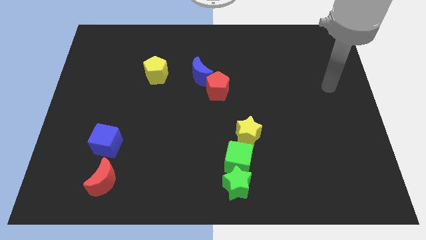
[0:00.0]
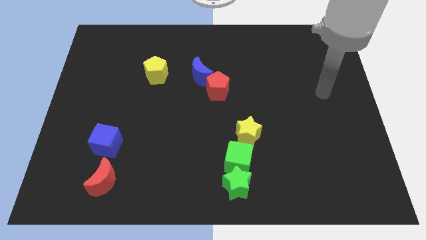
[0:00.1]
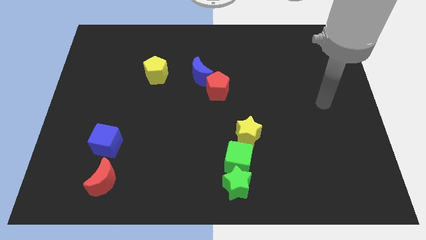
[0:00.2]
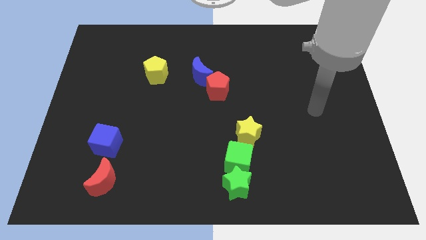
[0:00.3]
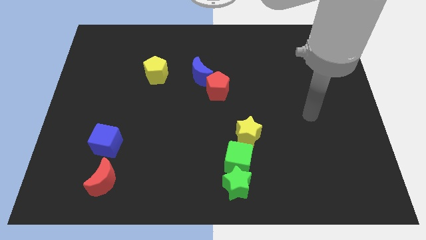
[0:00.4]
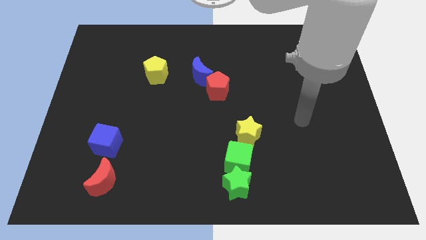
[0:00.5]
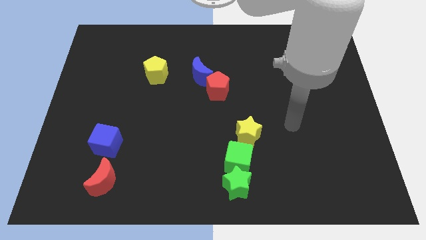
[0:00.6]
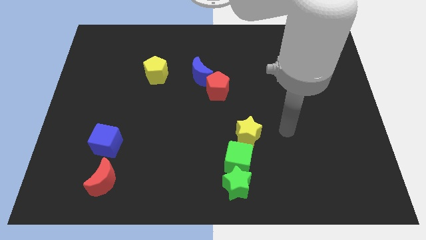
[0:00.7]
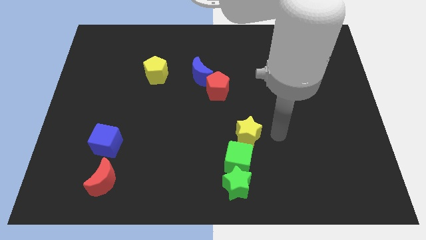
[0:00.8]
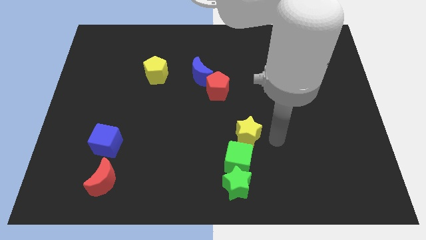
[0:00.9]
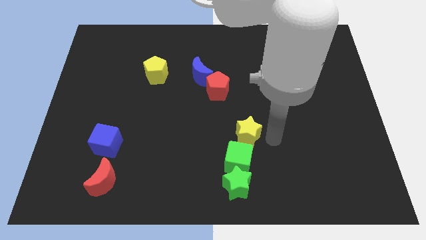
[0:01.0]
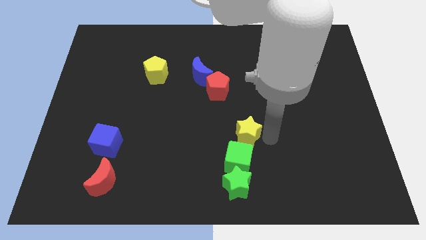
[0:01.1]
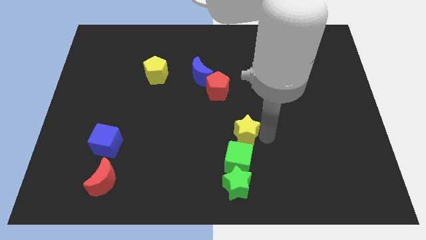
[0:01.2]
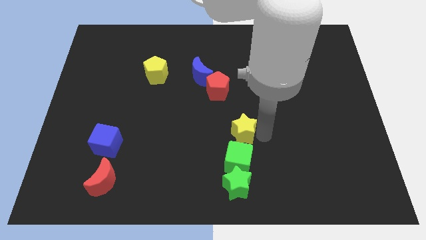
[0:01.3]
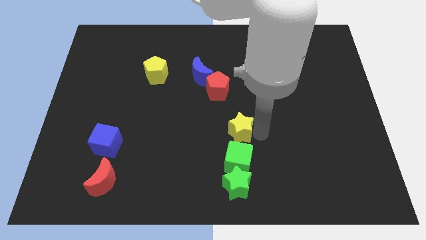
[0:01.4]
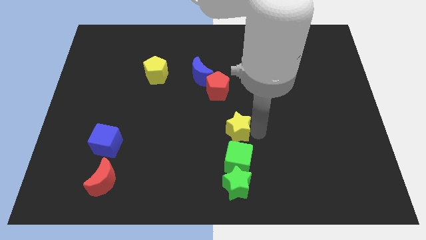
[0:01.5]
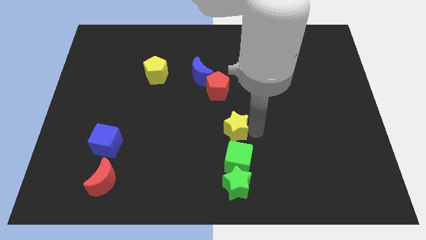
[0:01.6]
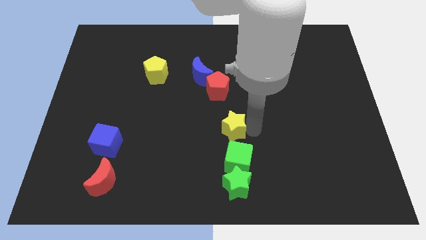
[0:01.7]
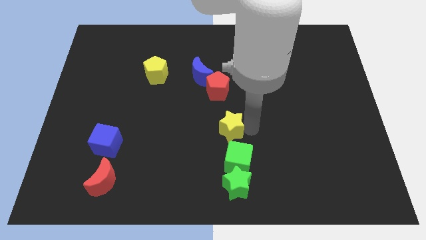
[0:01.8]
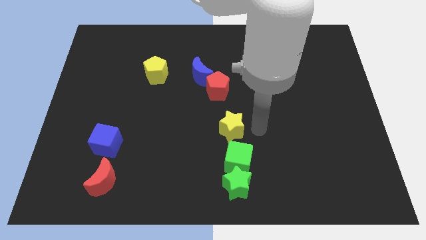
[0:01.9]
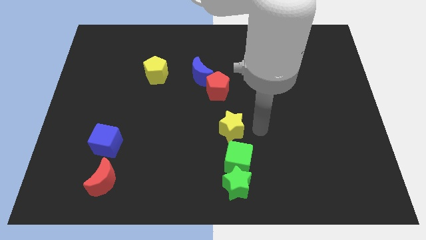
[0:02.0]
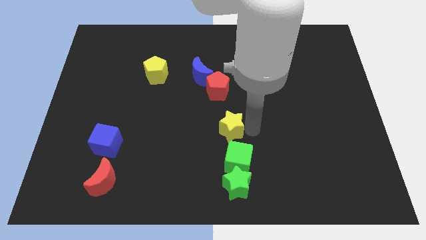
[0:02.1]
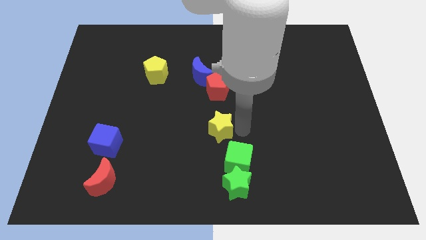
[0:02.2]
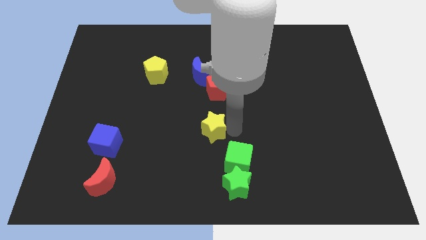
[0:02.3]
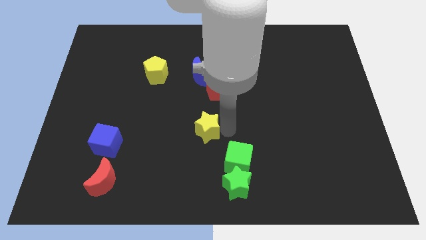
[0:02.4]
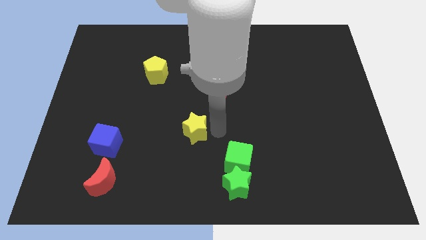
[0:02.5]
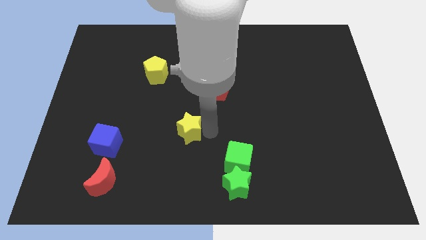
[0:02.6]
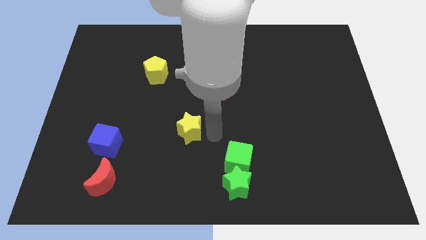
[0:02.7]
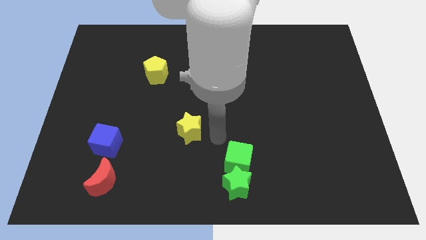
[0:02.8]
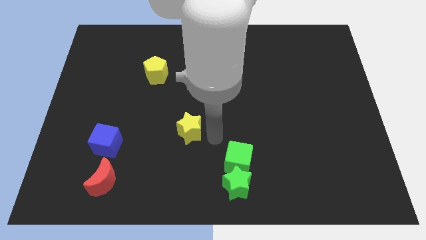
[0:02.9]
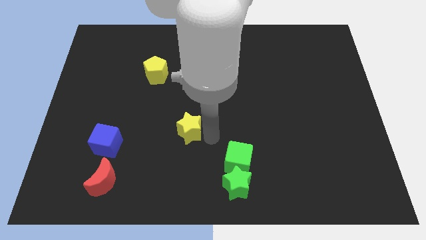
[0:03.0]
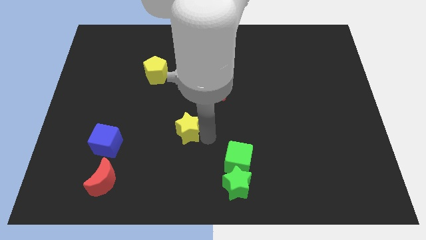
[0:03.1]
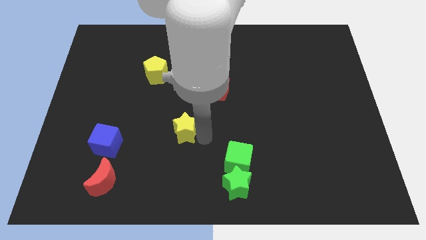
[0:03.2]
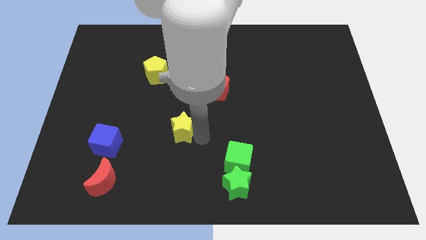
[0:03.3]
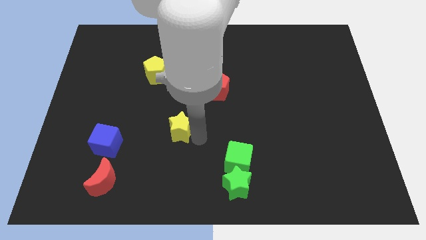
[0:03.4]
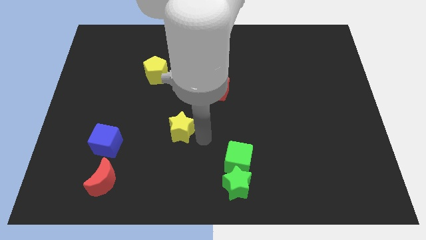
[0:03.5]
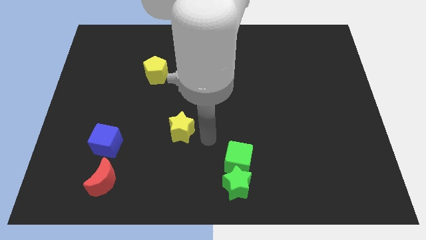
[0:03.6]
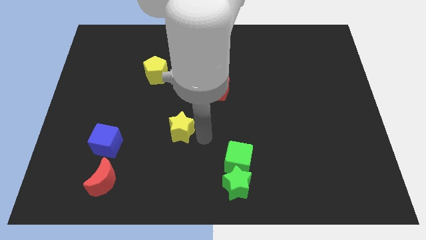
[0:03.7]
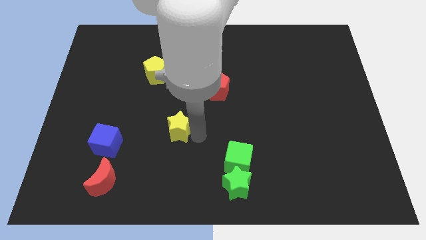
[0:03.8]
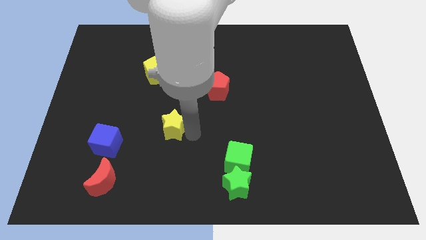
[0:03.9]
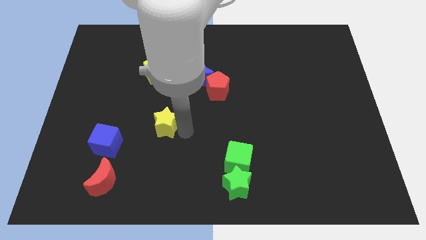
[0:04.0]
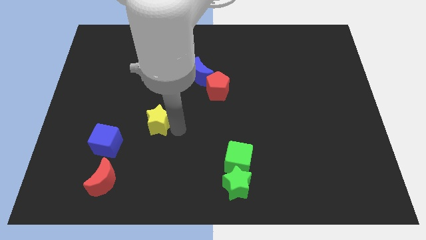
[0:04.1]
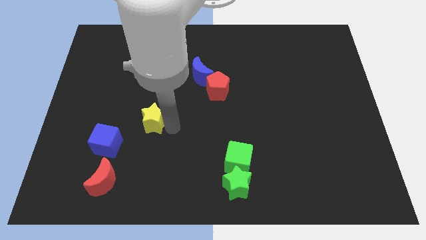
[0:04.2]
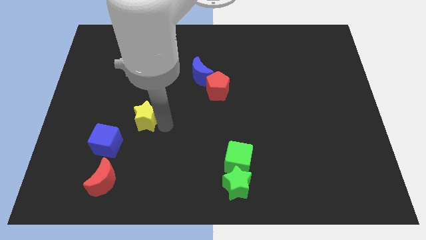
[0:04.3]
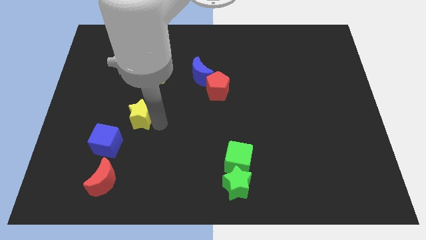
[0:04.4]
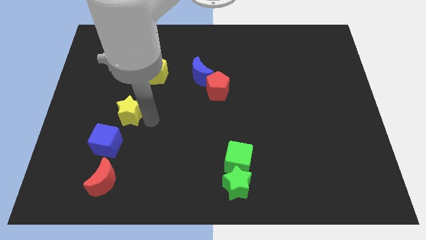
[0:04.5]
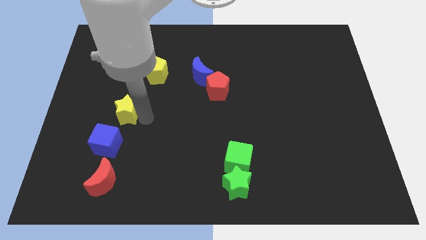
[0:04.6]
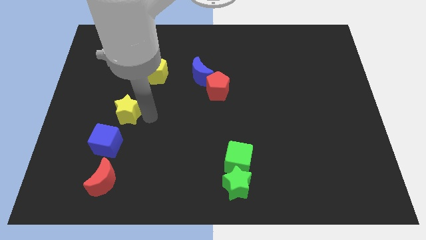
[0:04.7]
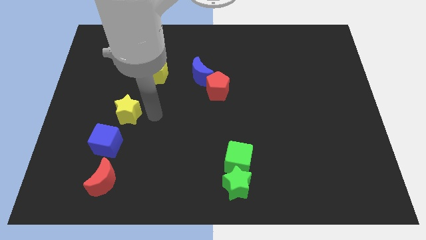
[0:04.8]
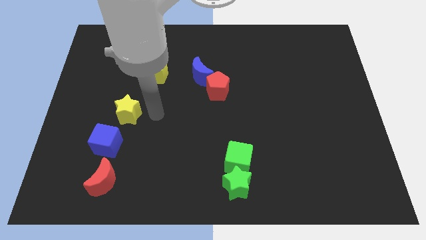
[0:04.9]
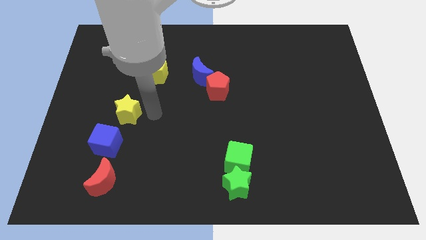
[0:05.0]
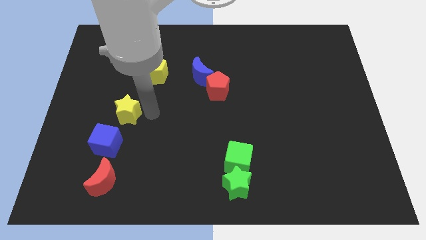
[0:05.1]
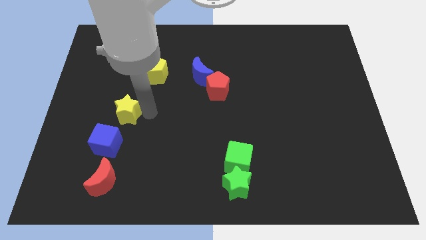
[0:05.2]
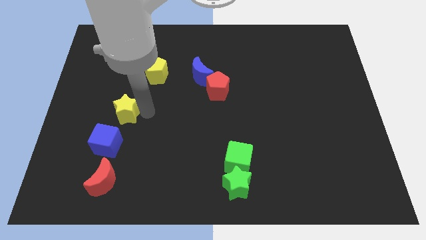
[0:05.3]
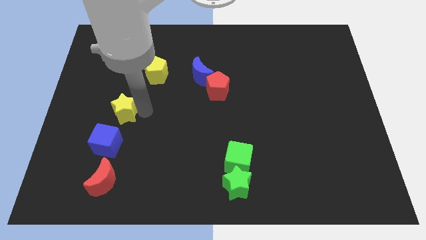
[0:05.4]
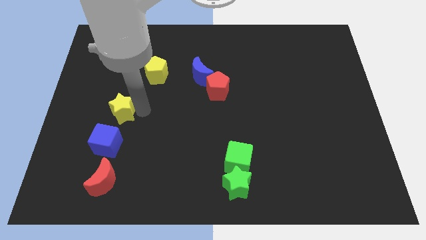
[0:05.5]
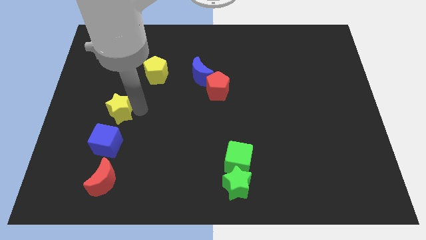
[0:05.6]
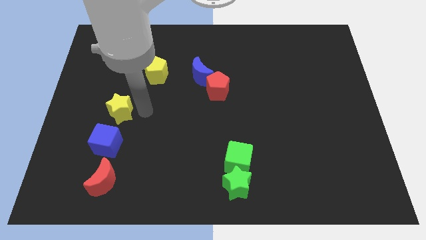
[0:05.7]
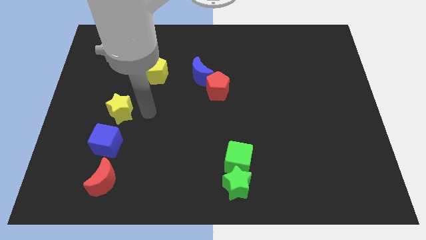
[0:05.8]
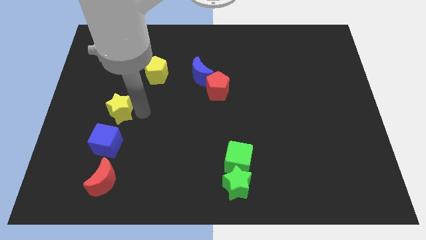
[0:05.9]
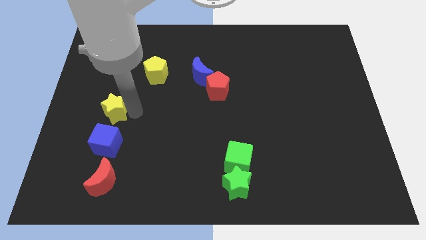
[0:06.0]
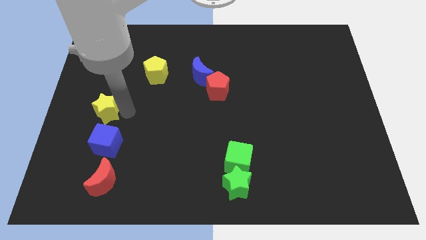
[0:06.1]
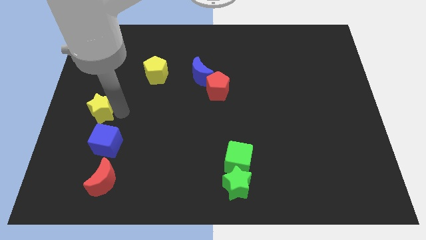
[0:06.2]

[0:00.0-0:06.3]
put the yellow star to the center left

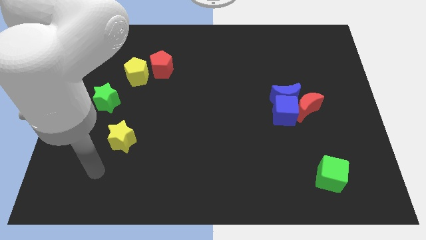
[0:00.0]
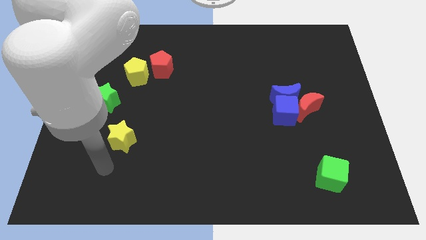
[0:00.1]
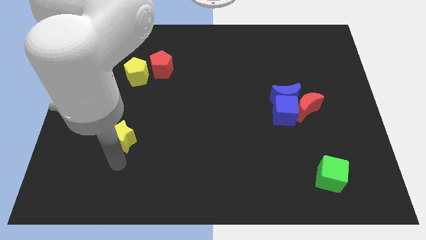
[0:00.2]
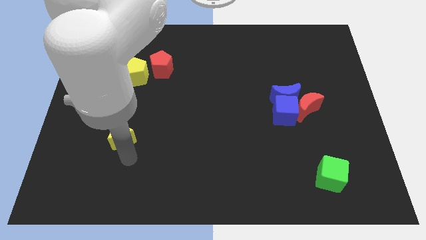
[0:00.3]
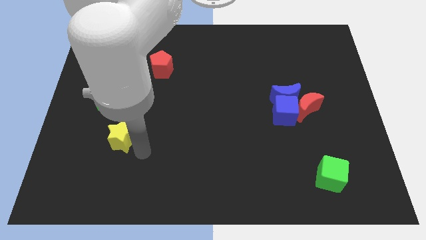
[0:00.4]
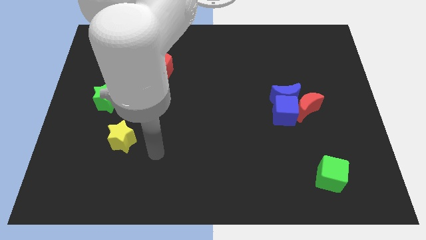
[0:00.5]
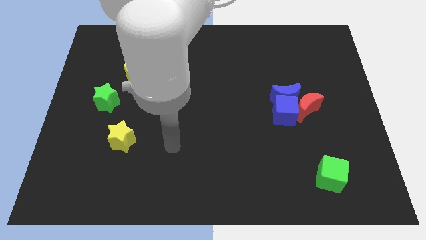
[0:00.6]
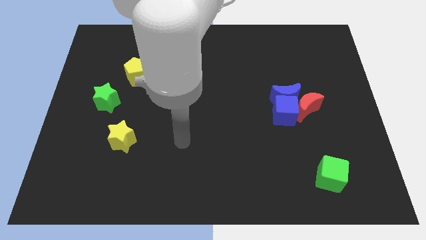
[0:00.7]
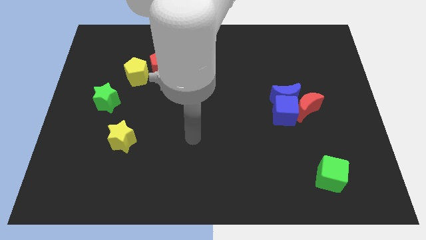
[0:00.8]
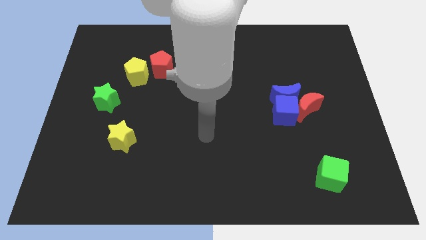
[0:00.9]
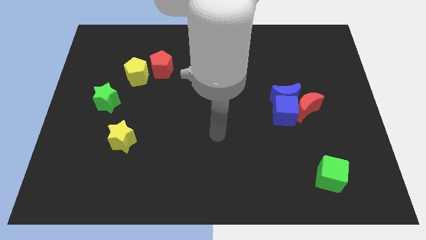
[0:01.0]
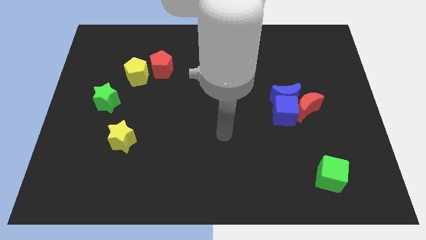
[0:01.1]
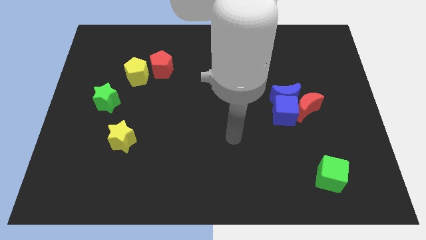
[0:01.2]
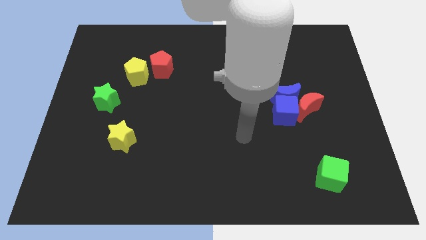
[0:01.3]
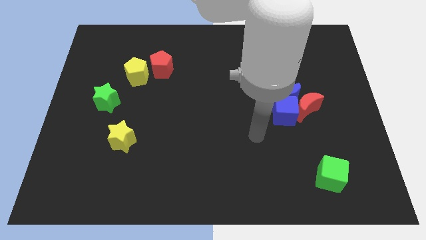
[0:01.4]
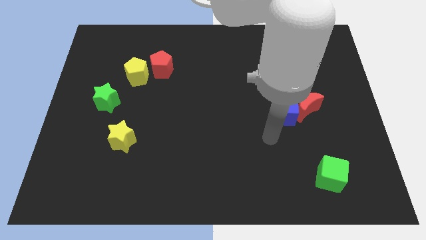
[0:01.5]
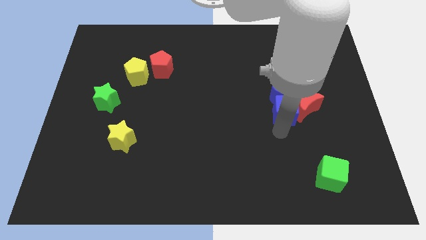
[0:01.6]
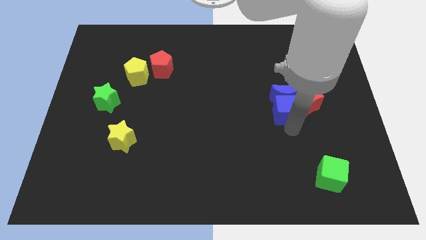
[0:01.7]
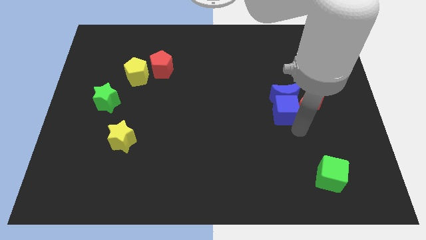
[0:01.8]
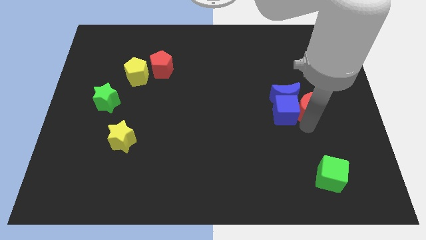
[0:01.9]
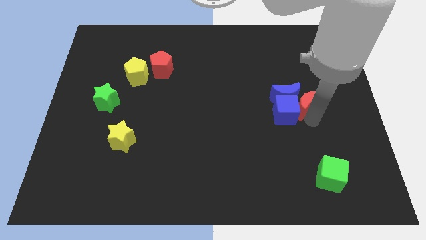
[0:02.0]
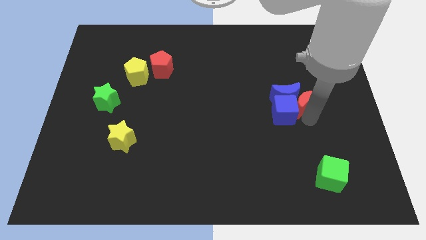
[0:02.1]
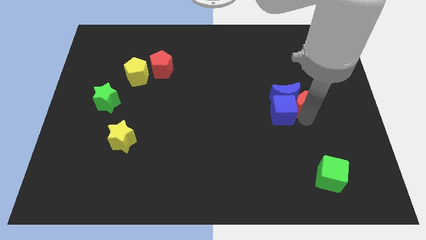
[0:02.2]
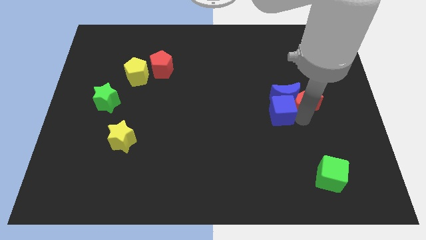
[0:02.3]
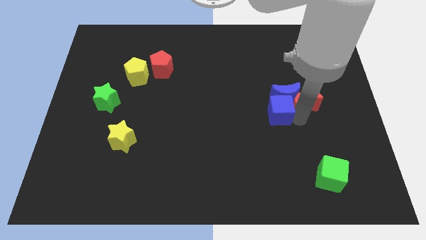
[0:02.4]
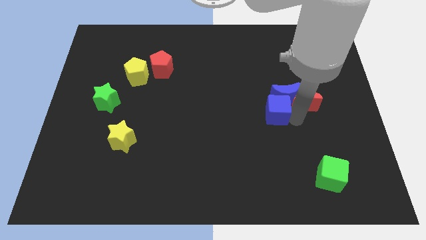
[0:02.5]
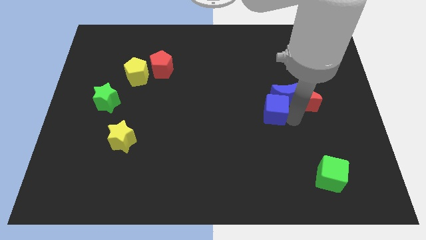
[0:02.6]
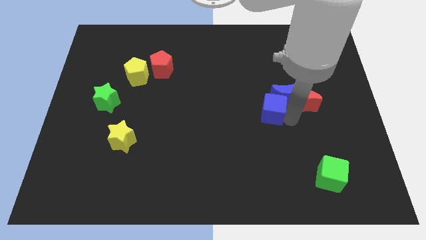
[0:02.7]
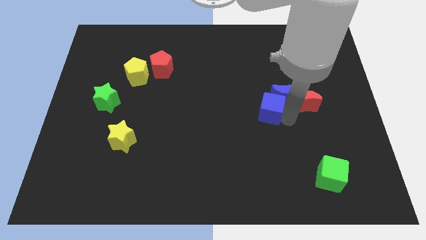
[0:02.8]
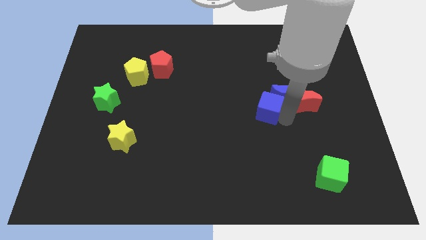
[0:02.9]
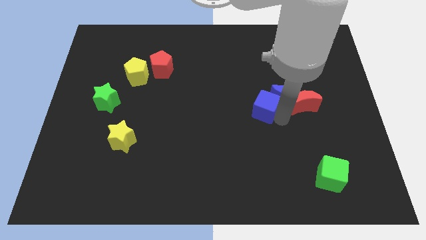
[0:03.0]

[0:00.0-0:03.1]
put the blue cube to the center
